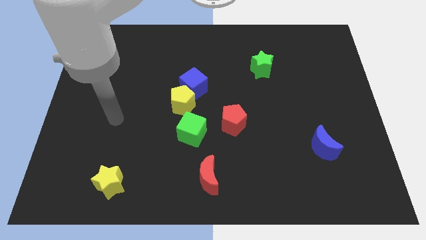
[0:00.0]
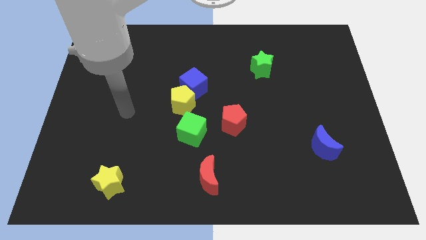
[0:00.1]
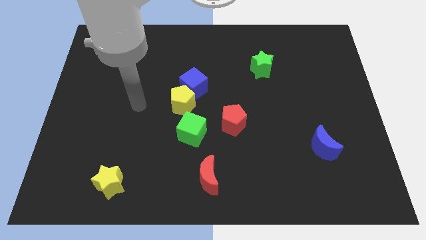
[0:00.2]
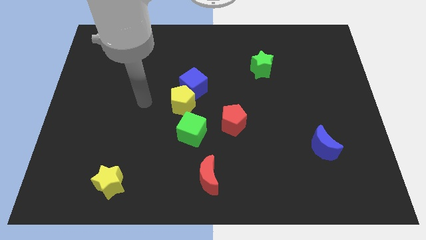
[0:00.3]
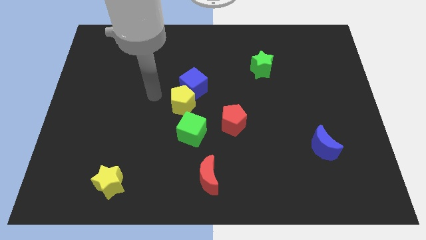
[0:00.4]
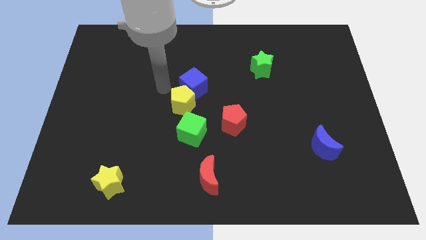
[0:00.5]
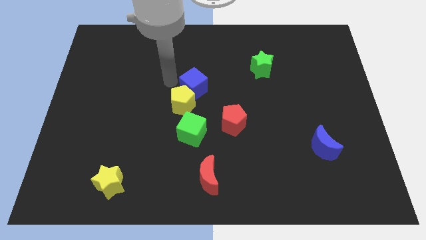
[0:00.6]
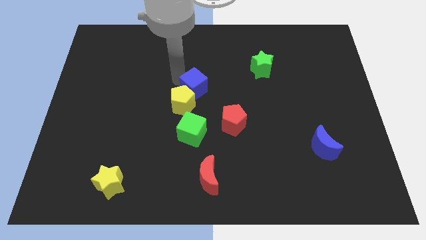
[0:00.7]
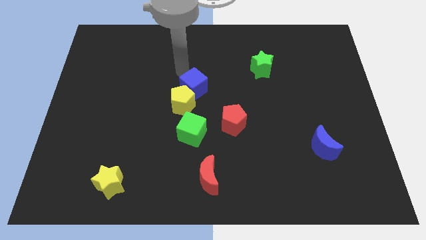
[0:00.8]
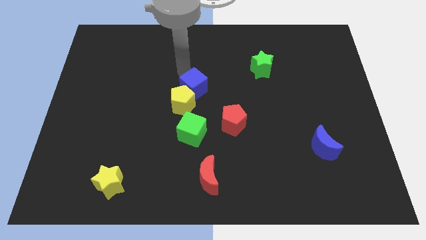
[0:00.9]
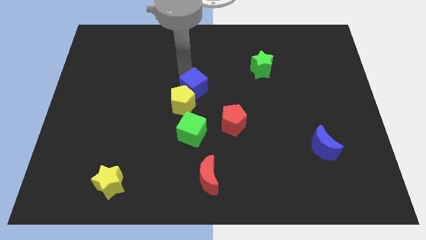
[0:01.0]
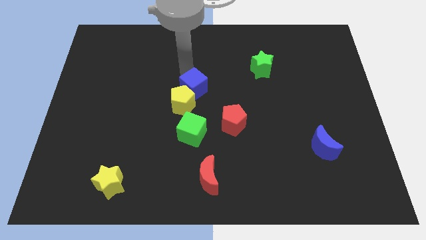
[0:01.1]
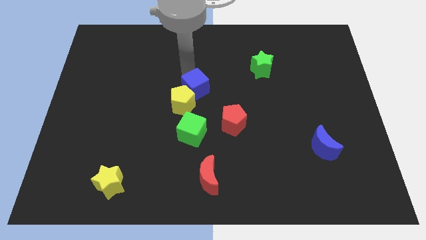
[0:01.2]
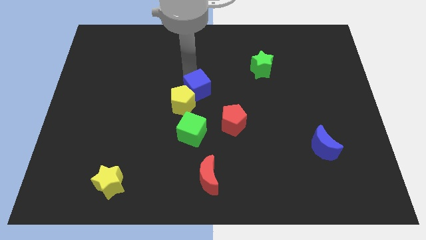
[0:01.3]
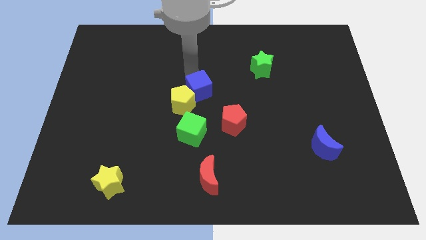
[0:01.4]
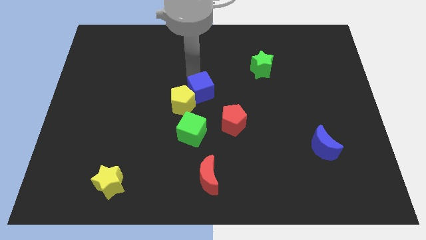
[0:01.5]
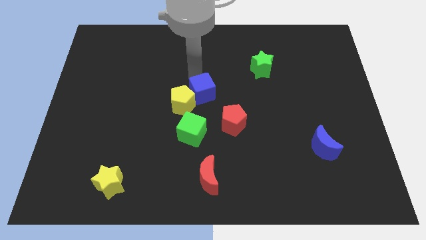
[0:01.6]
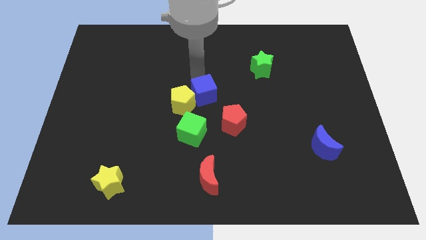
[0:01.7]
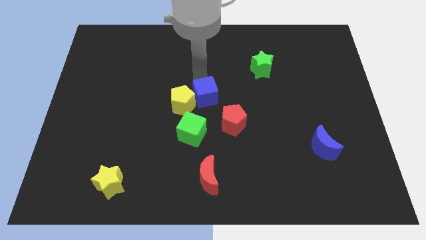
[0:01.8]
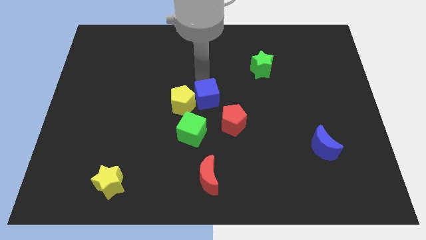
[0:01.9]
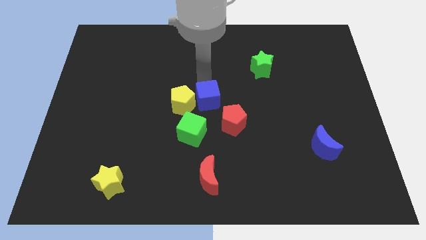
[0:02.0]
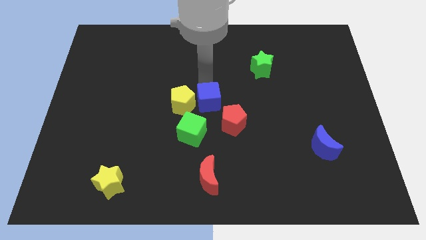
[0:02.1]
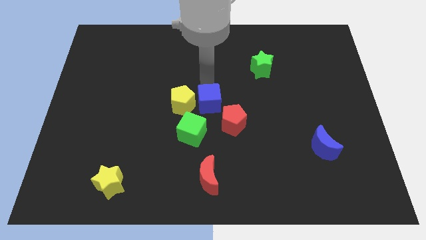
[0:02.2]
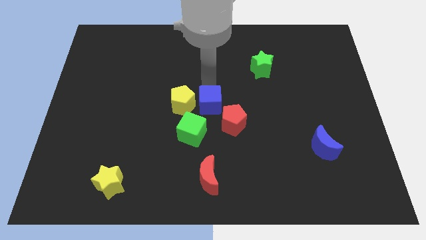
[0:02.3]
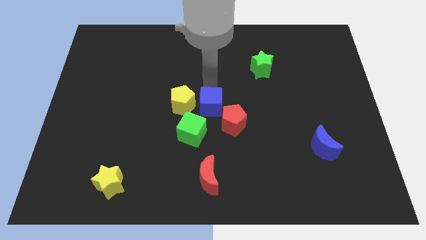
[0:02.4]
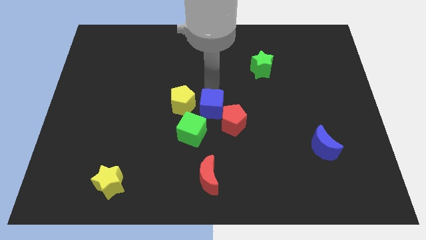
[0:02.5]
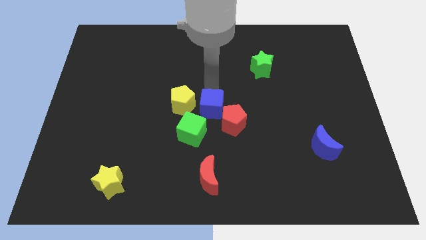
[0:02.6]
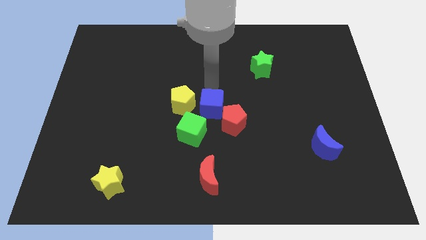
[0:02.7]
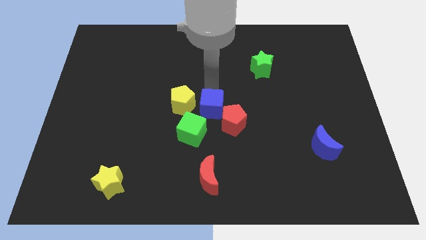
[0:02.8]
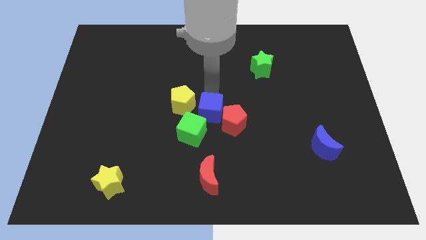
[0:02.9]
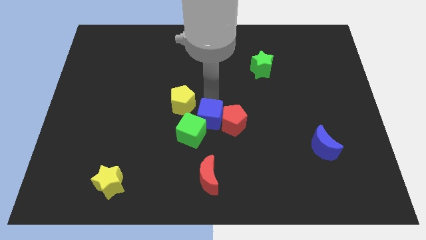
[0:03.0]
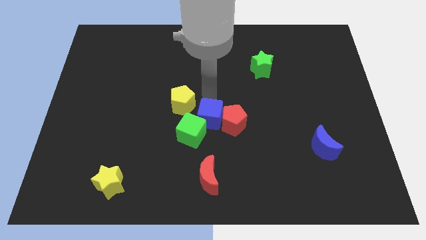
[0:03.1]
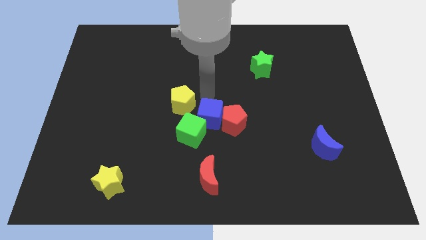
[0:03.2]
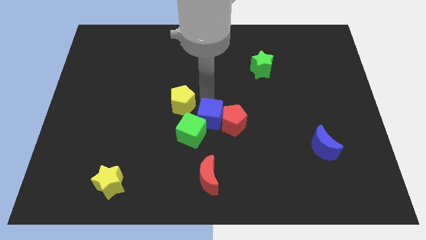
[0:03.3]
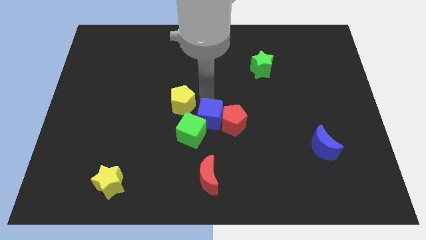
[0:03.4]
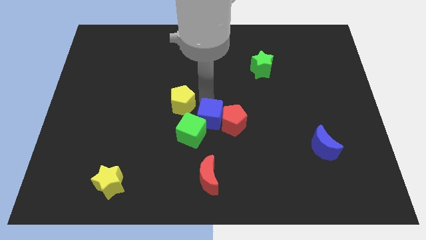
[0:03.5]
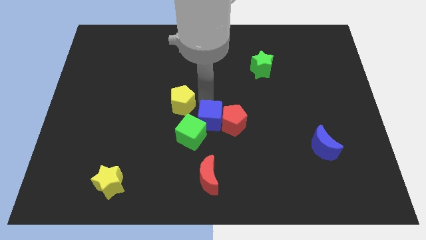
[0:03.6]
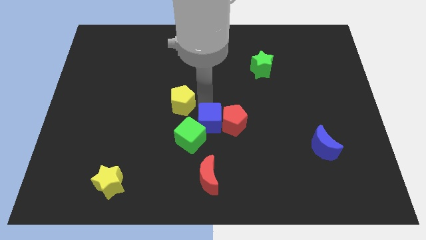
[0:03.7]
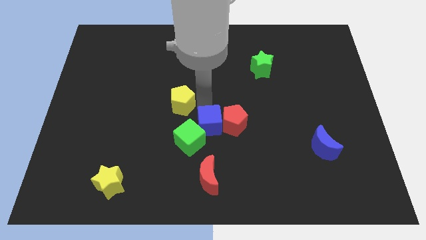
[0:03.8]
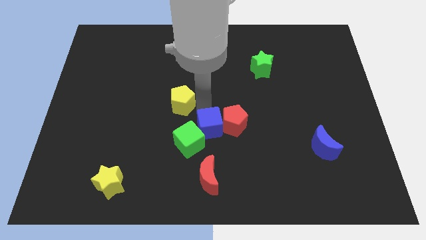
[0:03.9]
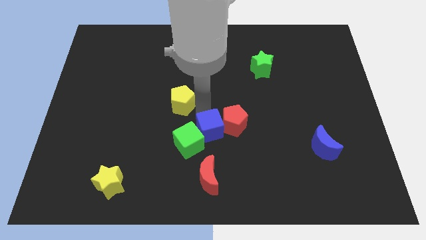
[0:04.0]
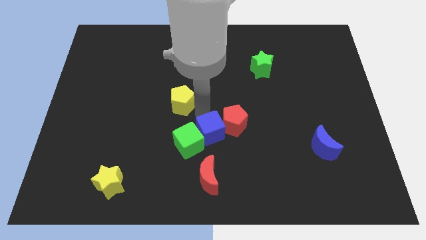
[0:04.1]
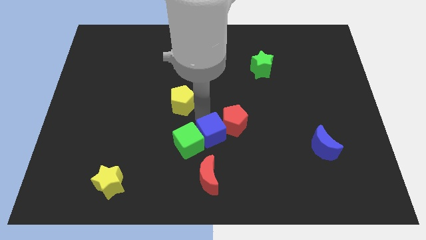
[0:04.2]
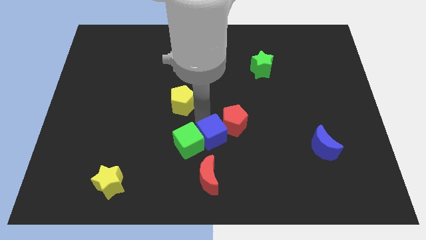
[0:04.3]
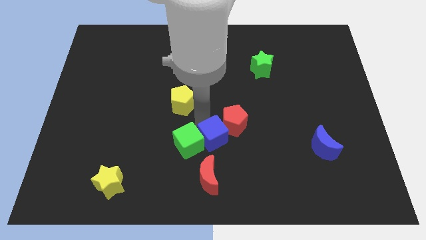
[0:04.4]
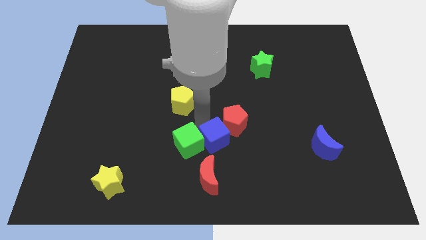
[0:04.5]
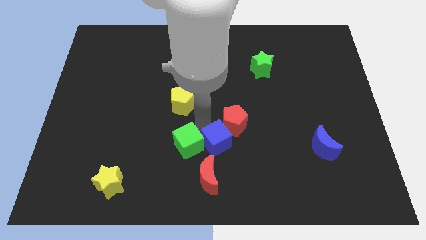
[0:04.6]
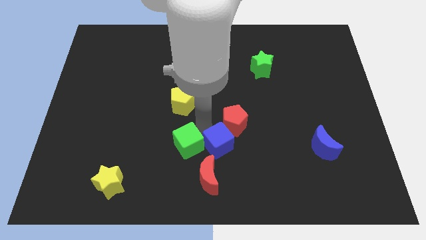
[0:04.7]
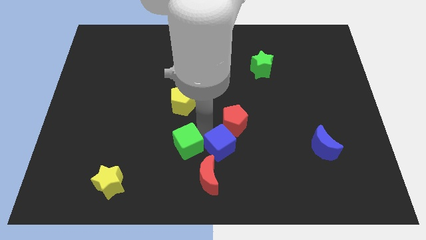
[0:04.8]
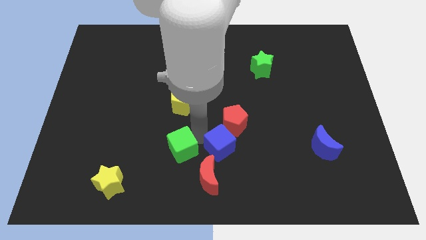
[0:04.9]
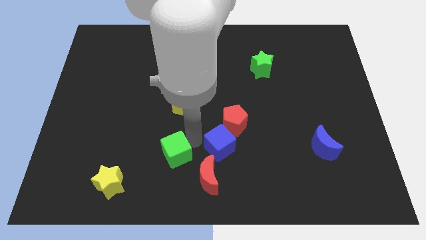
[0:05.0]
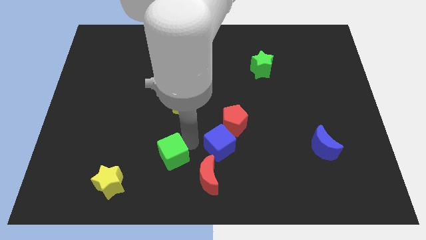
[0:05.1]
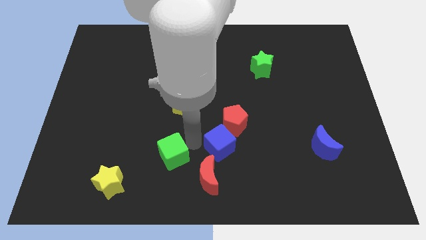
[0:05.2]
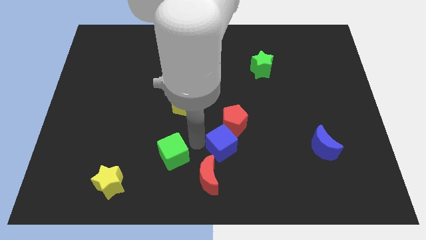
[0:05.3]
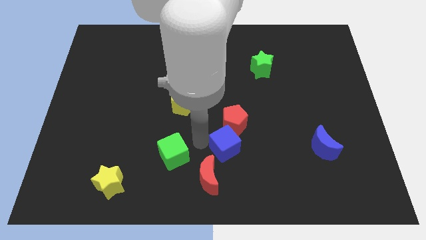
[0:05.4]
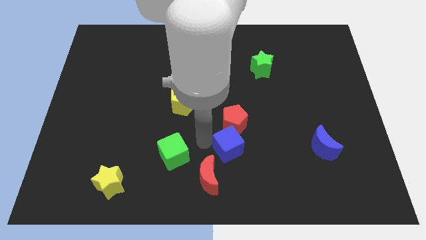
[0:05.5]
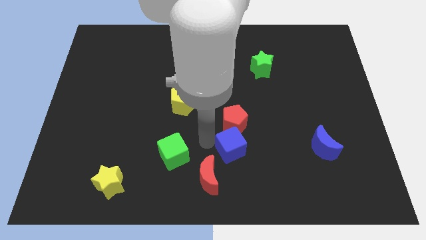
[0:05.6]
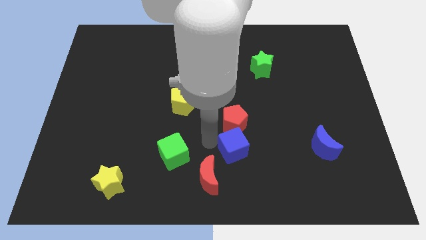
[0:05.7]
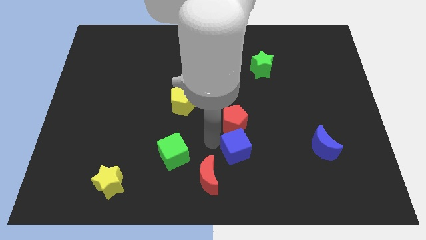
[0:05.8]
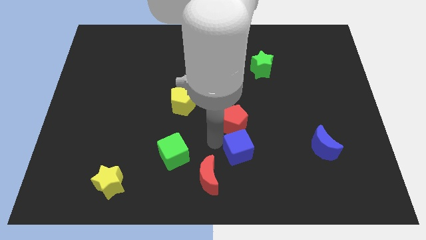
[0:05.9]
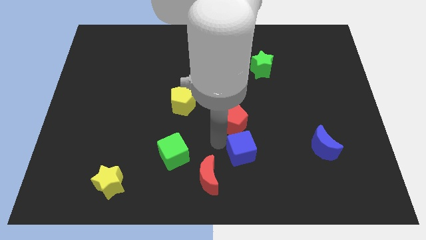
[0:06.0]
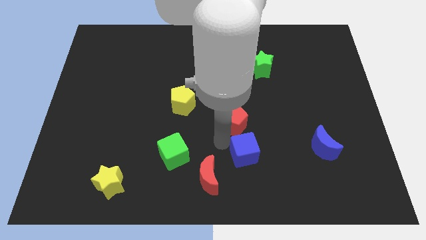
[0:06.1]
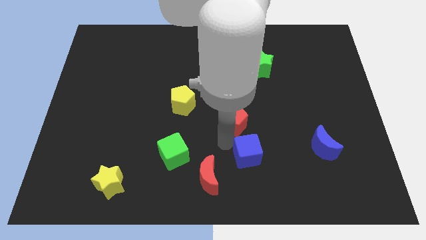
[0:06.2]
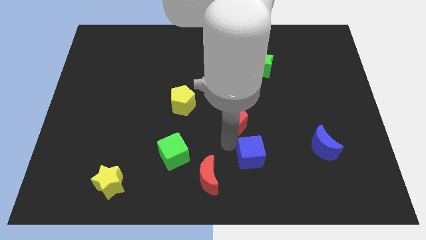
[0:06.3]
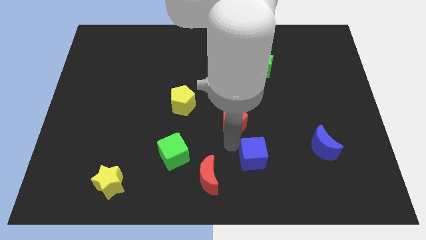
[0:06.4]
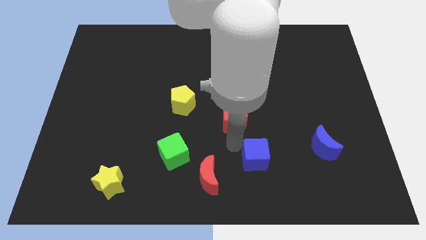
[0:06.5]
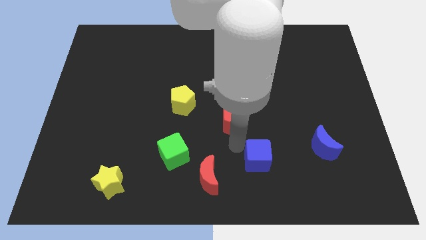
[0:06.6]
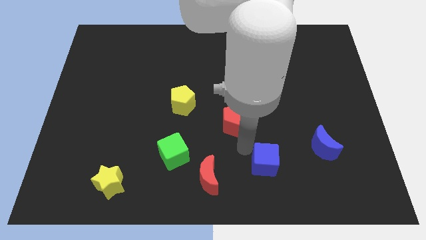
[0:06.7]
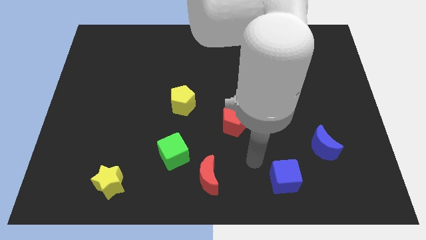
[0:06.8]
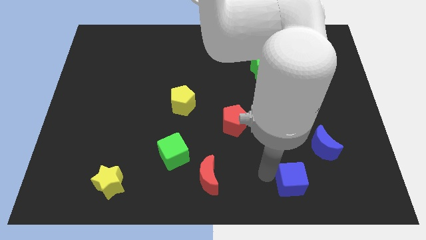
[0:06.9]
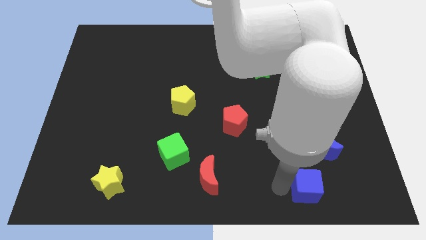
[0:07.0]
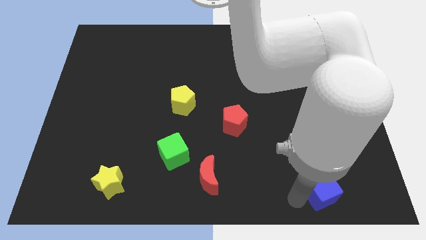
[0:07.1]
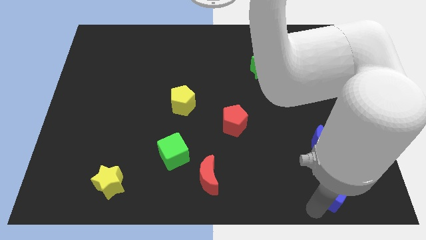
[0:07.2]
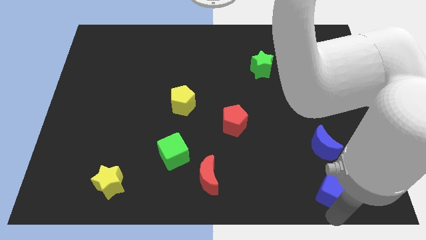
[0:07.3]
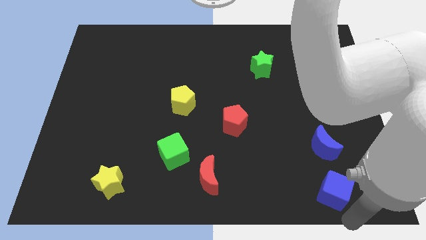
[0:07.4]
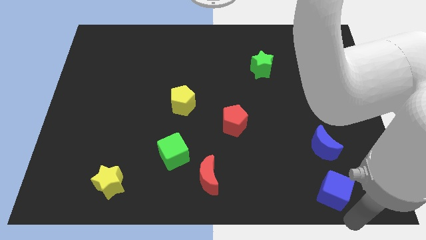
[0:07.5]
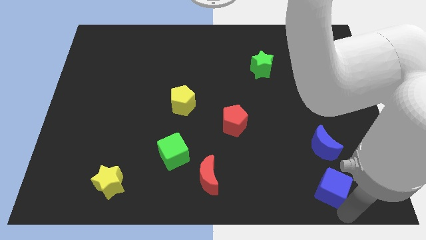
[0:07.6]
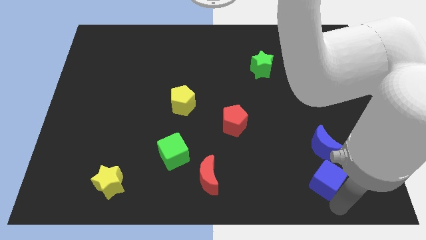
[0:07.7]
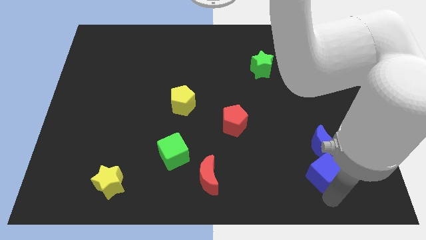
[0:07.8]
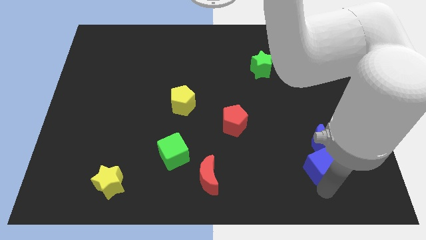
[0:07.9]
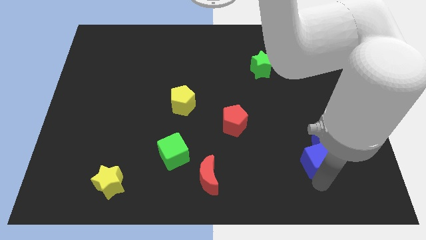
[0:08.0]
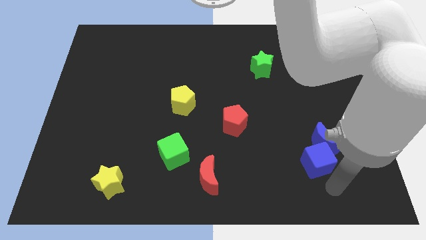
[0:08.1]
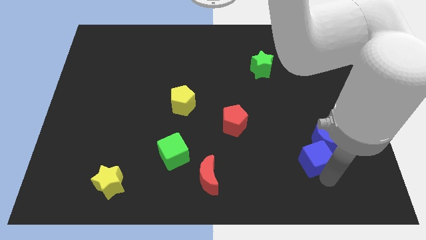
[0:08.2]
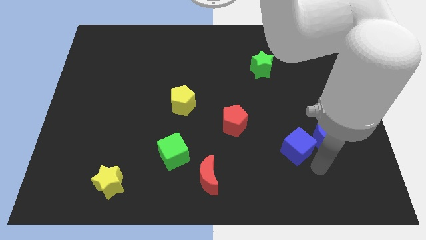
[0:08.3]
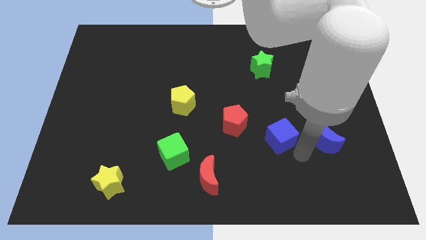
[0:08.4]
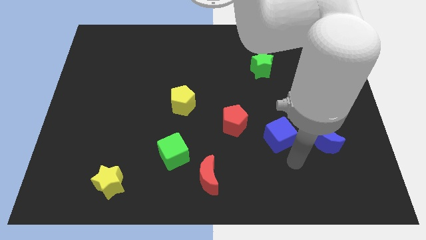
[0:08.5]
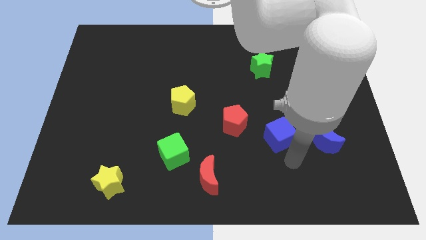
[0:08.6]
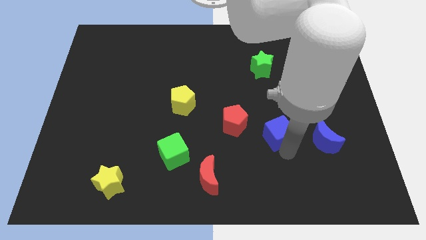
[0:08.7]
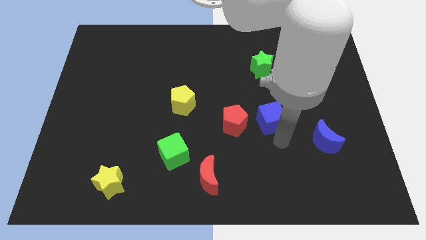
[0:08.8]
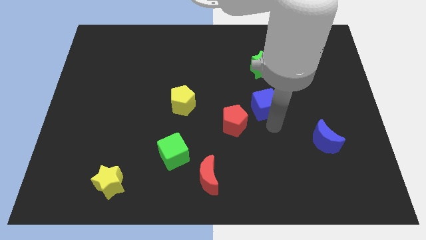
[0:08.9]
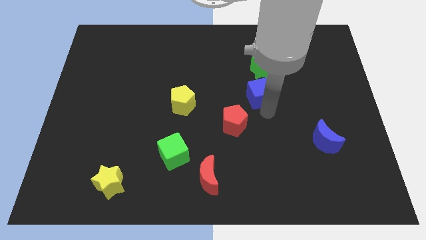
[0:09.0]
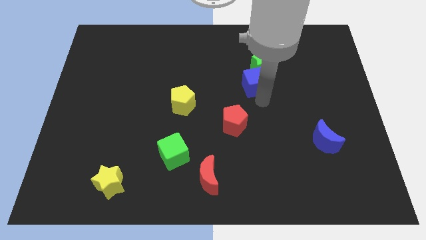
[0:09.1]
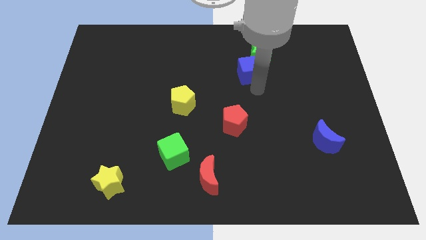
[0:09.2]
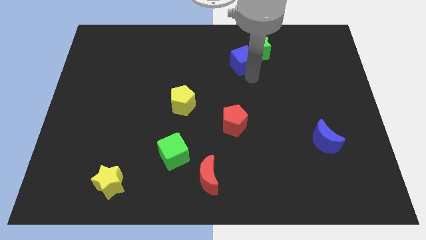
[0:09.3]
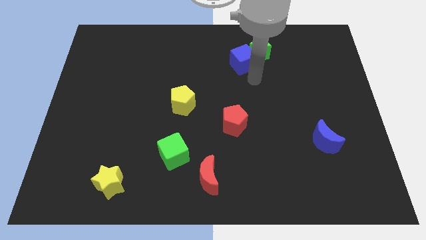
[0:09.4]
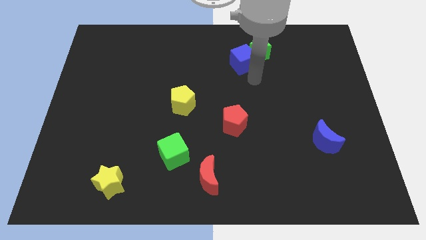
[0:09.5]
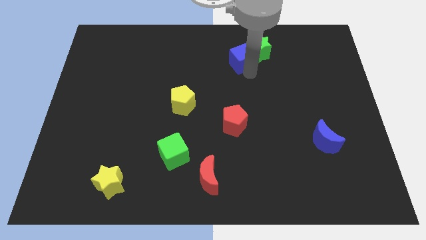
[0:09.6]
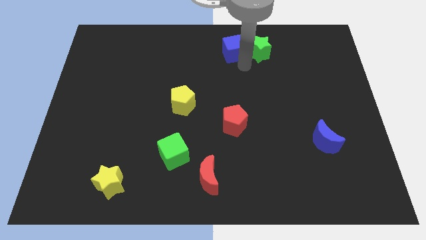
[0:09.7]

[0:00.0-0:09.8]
move the blue cube to the top
